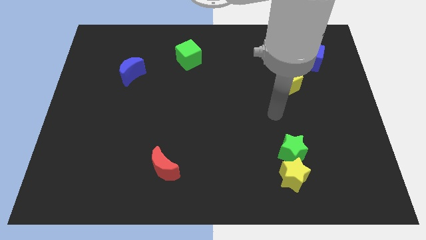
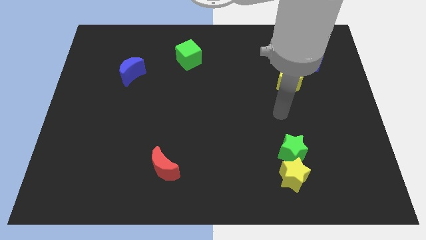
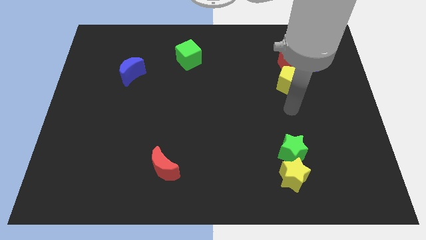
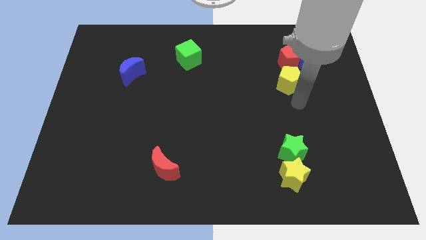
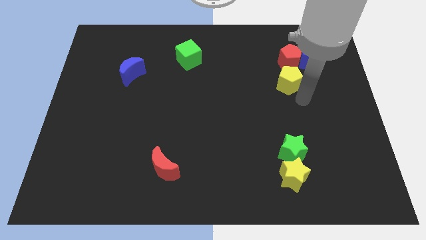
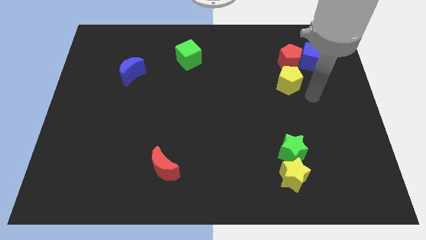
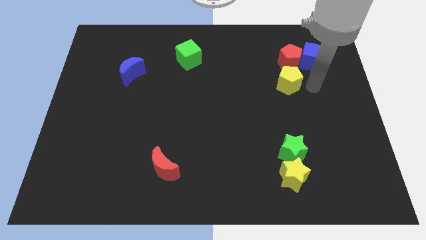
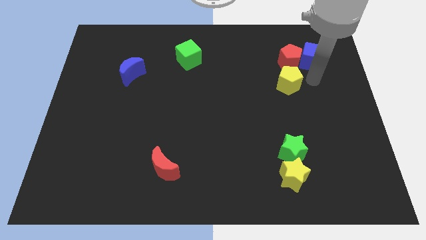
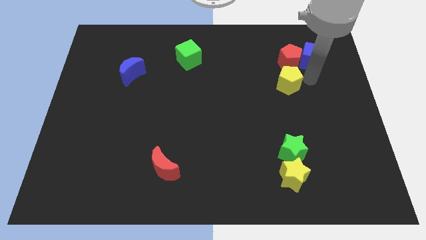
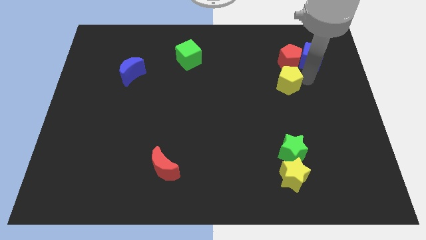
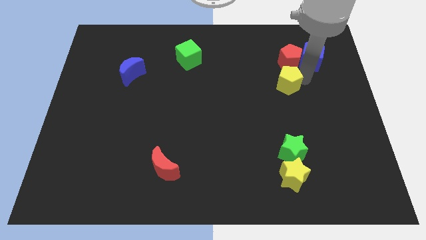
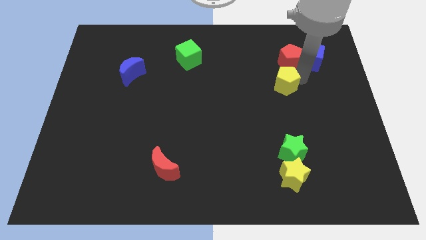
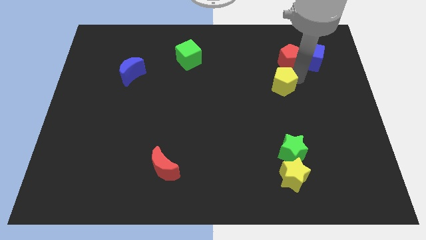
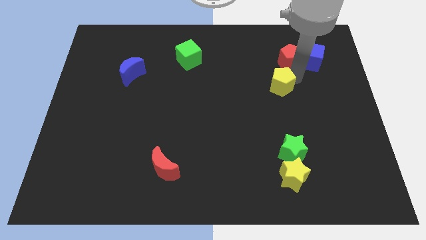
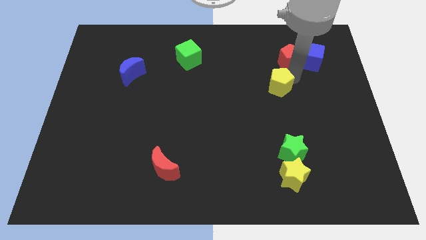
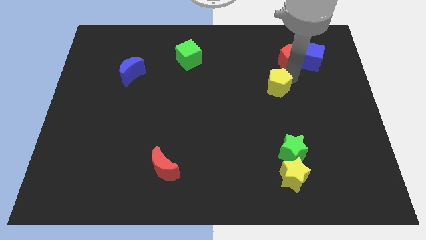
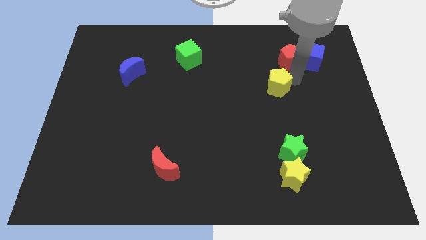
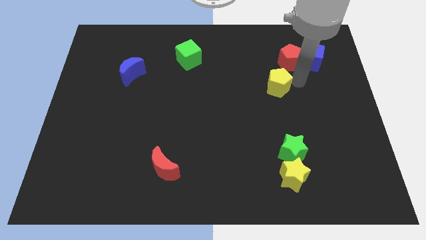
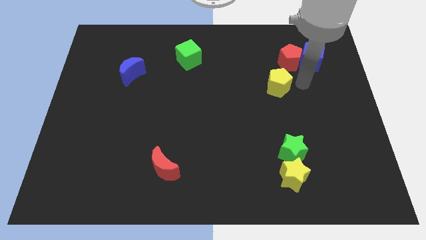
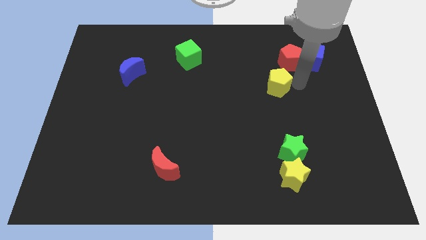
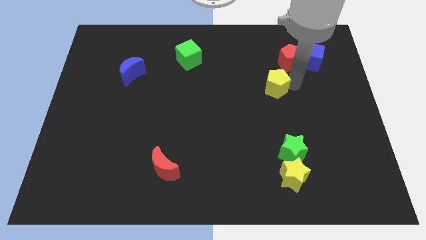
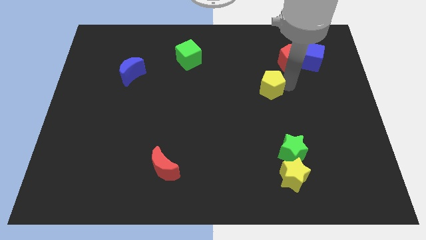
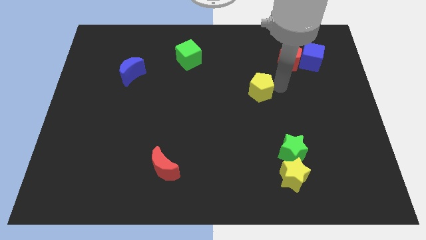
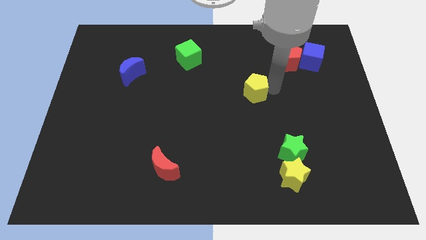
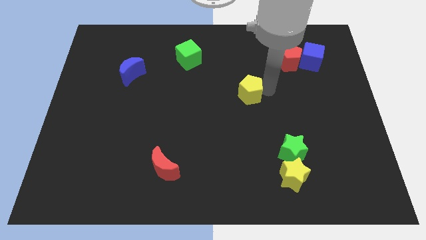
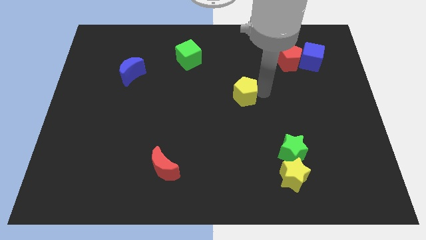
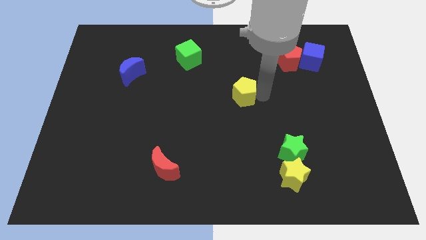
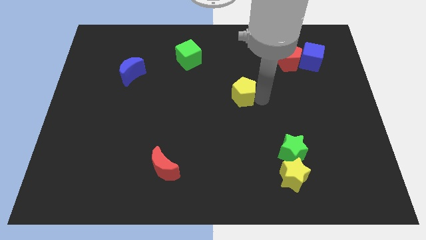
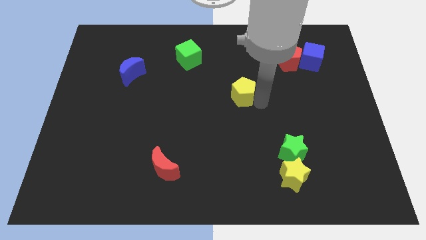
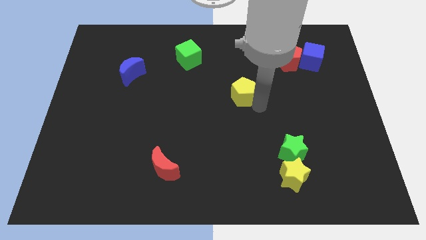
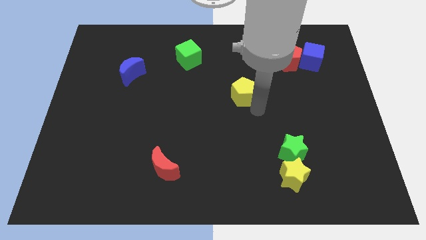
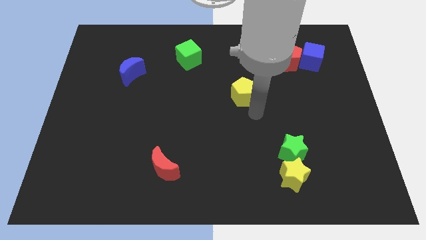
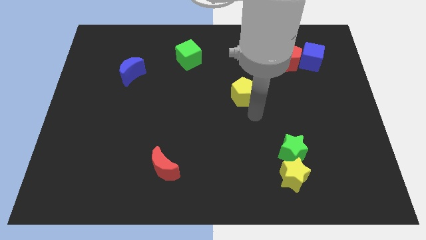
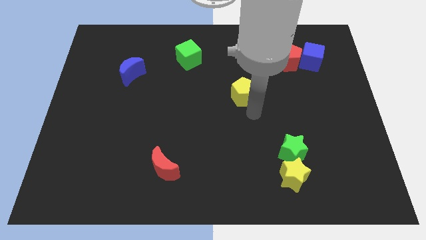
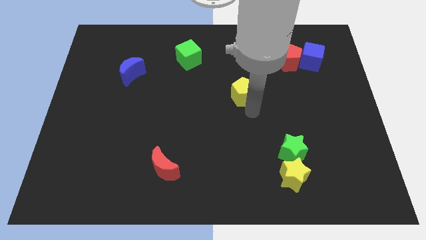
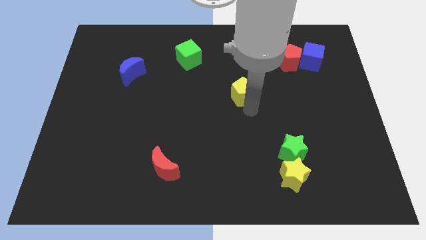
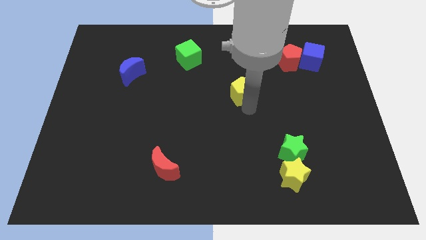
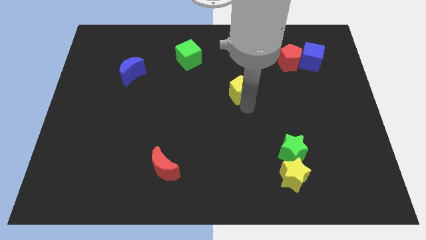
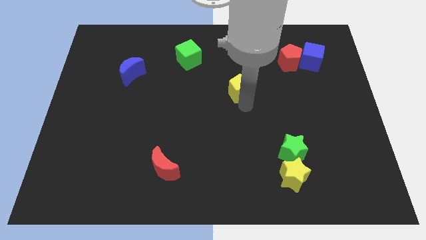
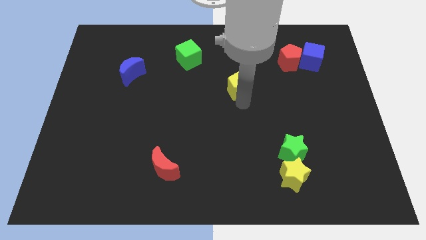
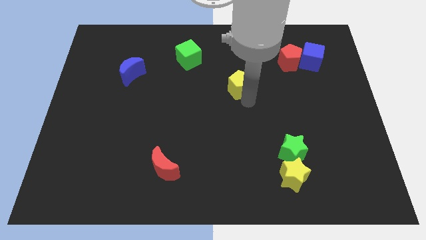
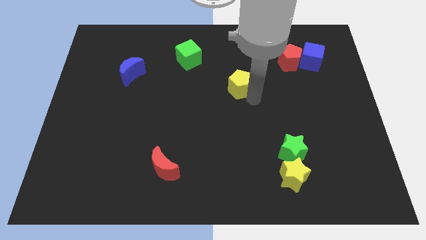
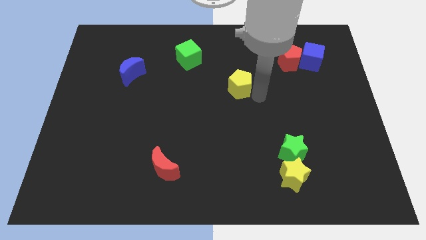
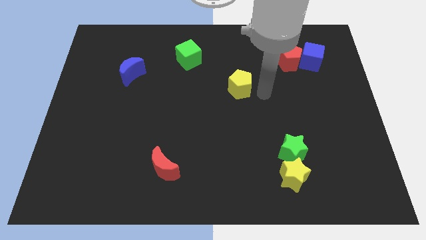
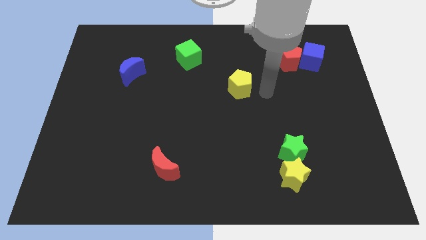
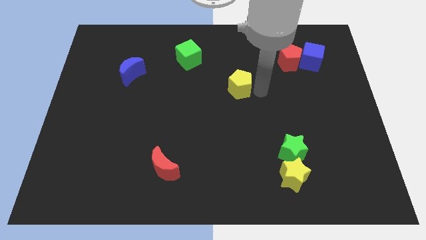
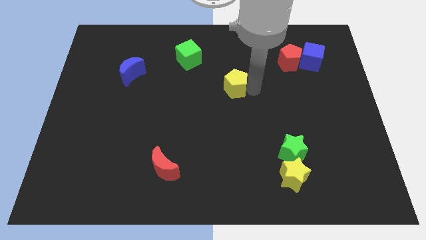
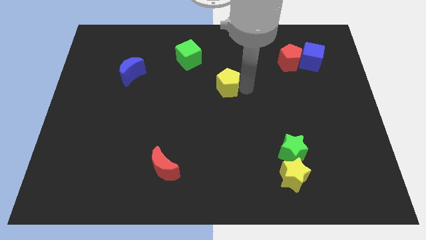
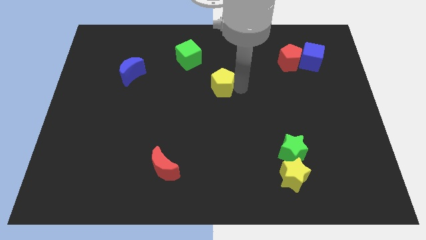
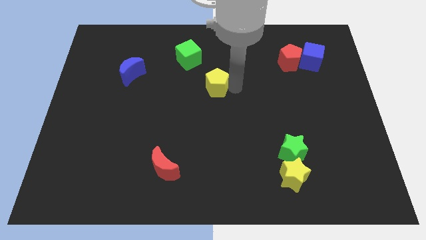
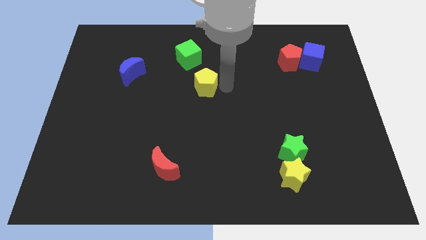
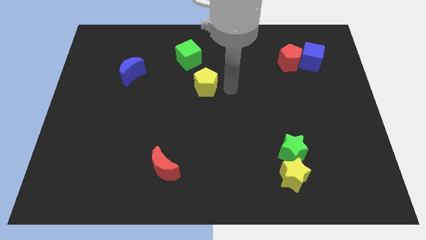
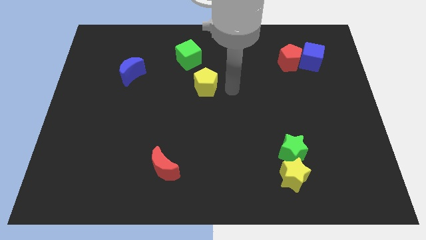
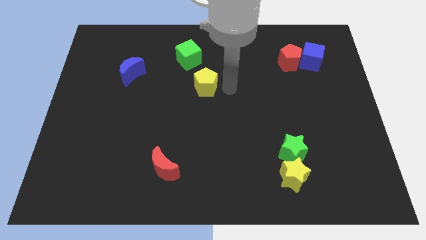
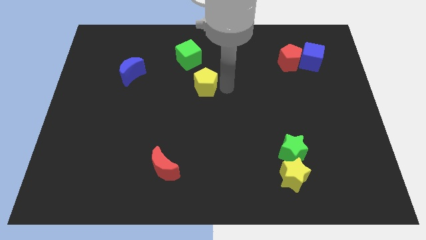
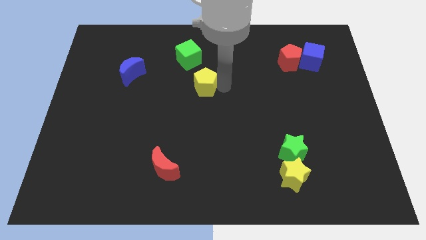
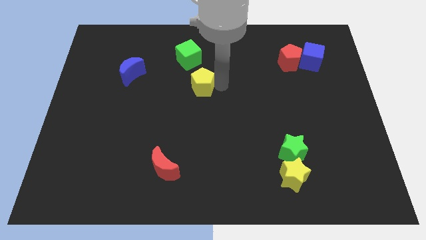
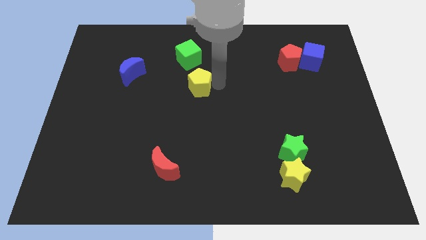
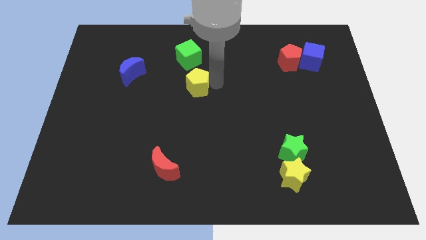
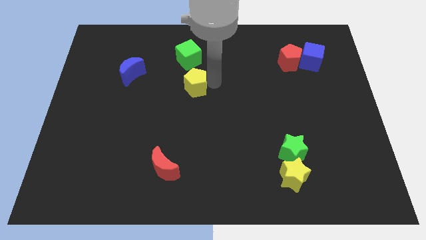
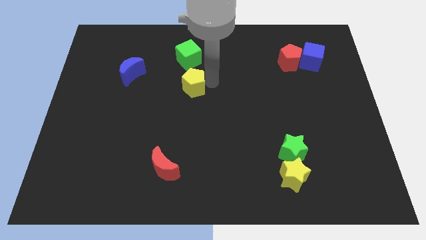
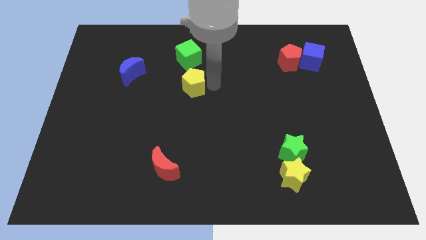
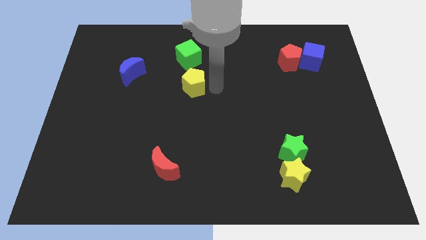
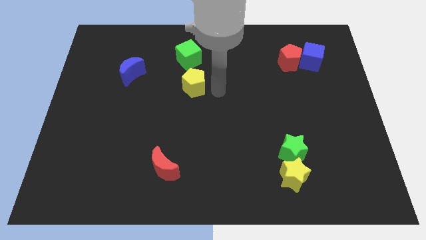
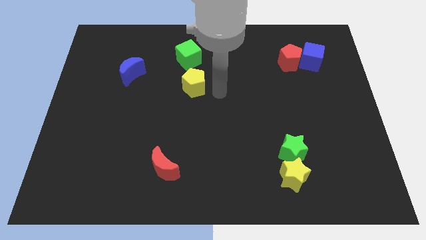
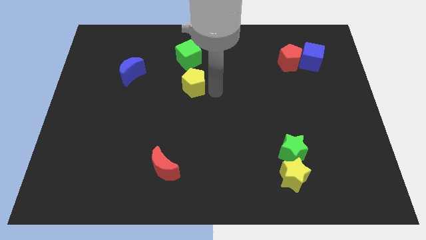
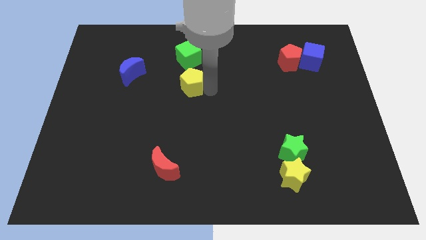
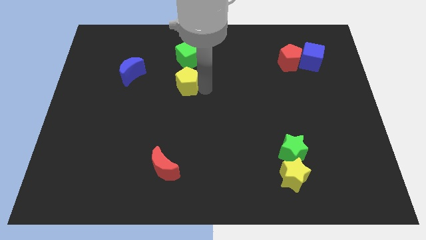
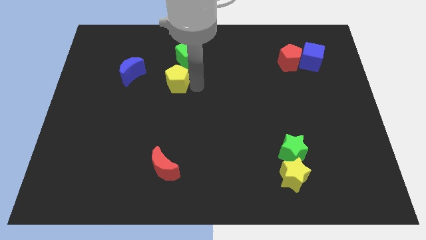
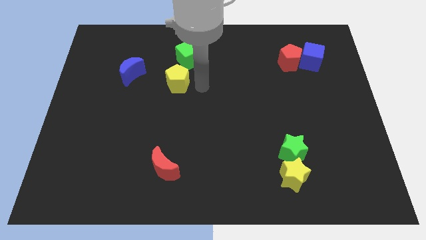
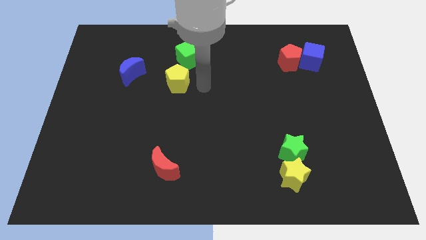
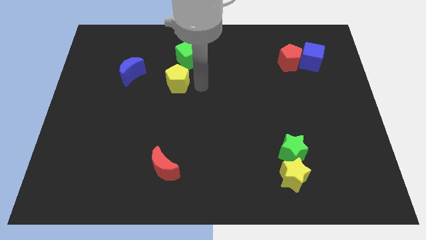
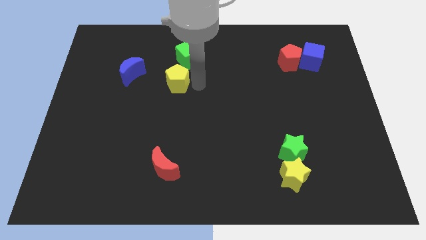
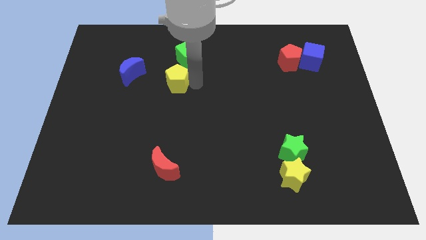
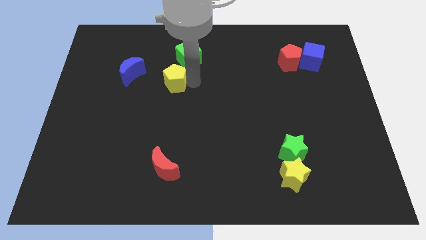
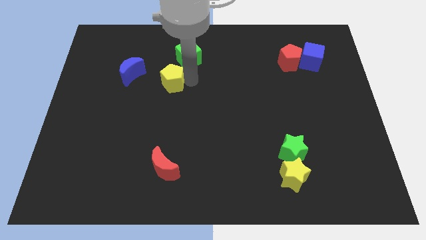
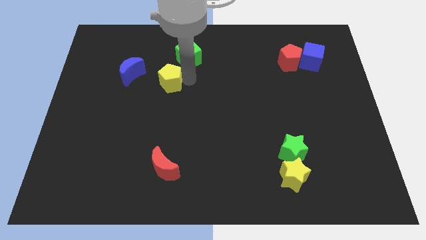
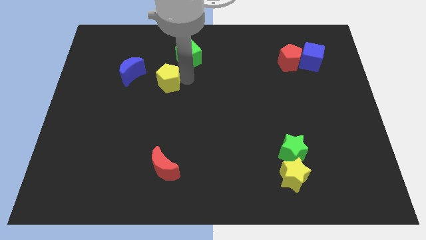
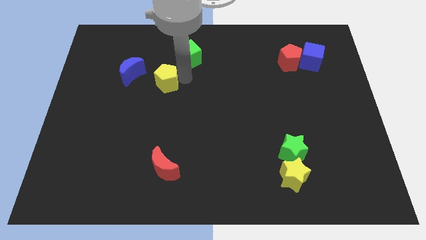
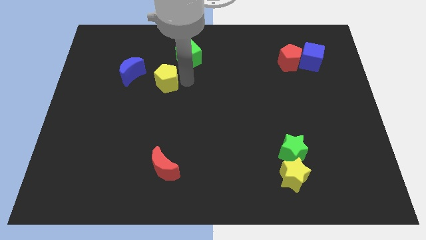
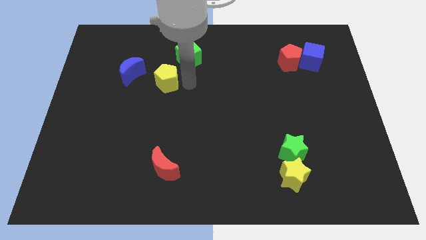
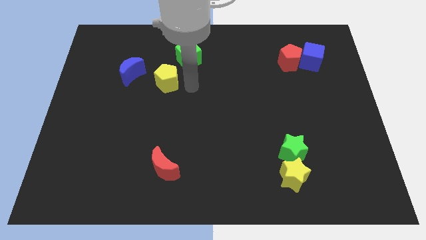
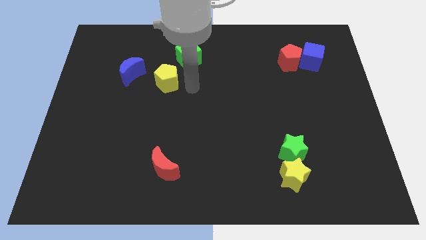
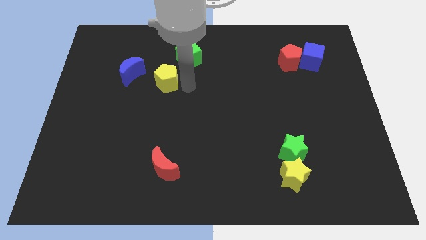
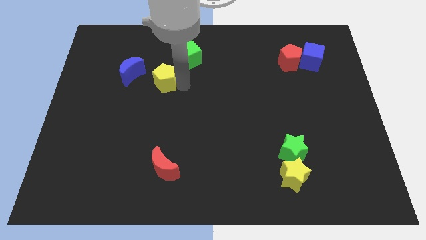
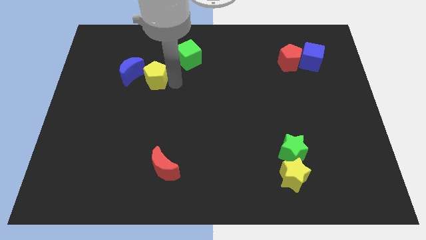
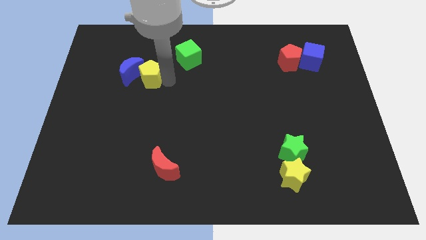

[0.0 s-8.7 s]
push the yellow pentagon to the blue moon
